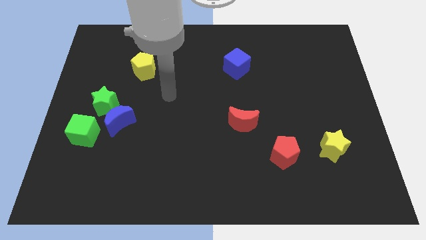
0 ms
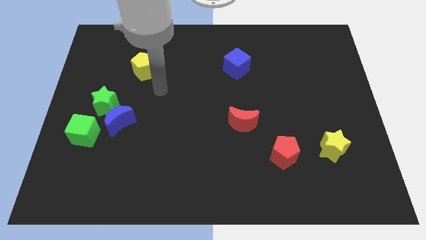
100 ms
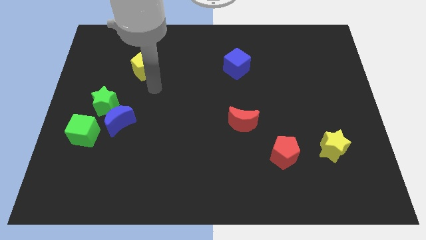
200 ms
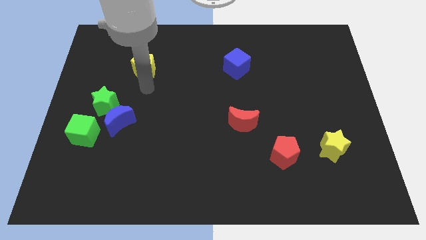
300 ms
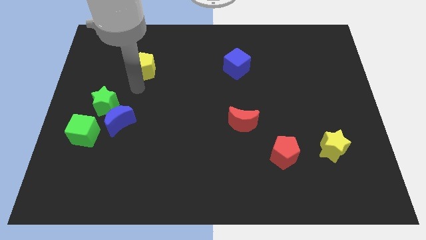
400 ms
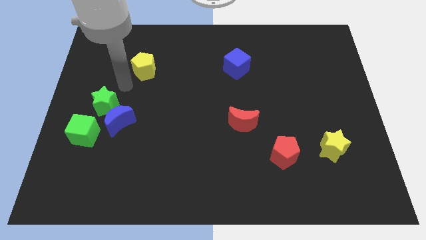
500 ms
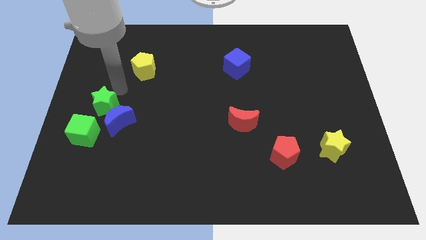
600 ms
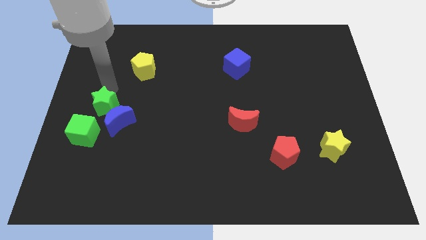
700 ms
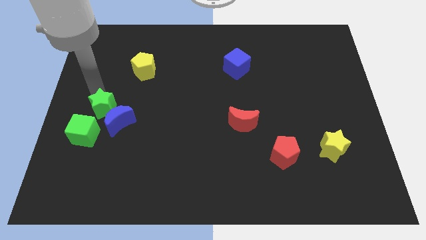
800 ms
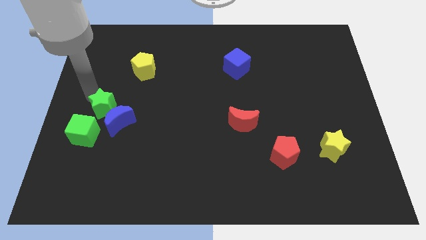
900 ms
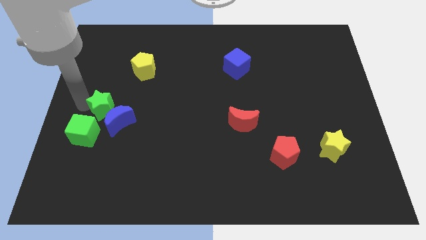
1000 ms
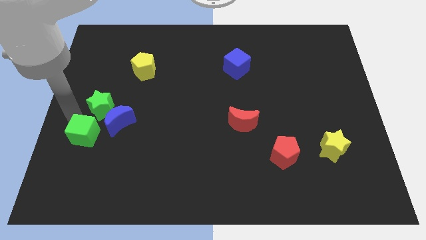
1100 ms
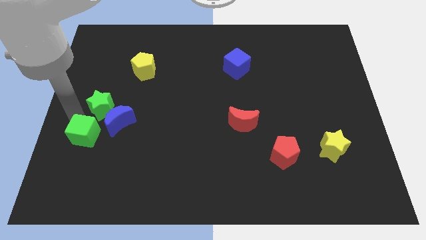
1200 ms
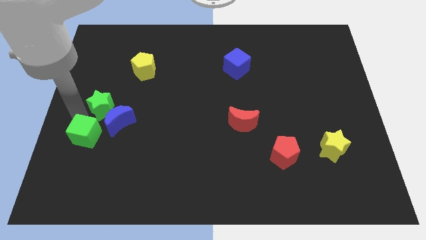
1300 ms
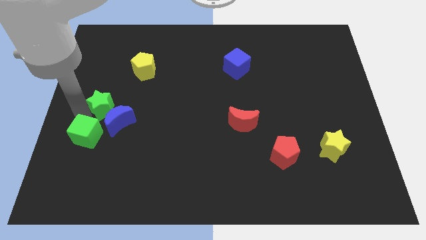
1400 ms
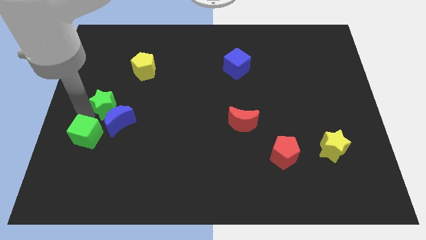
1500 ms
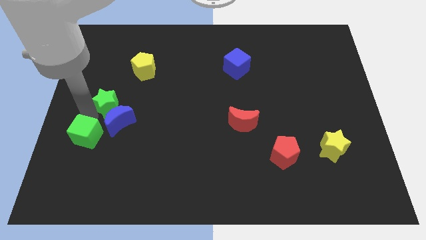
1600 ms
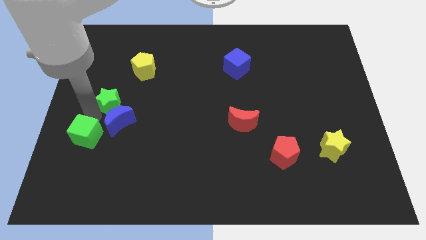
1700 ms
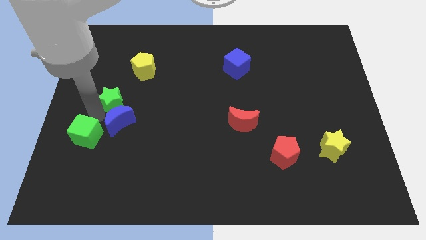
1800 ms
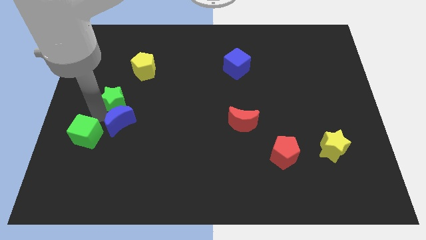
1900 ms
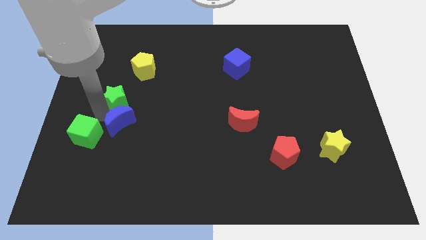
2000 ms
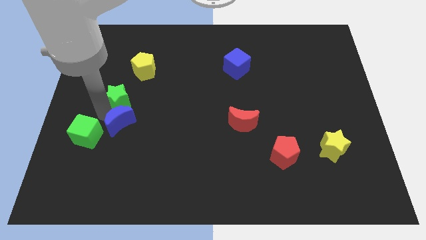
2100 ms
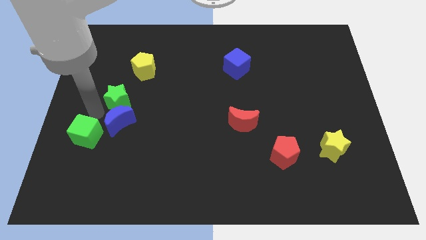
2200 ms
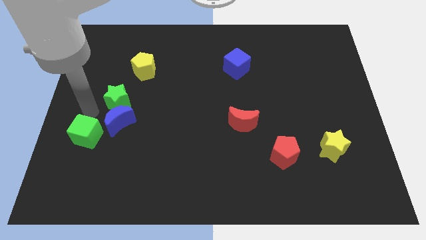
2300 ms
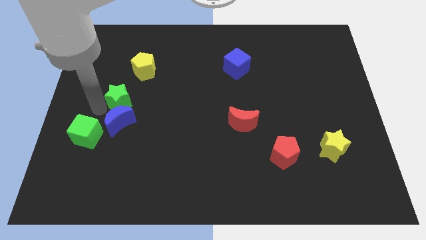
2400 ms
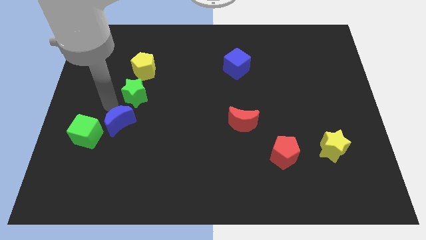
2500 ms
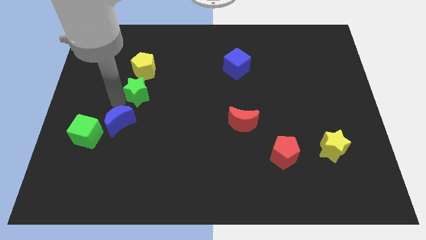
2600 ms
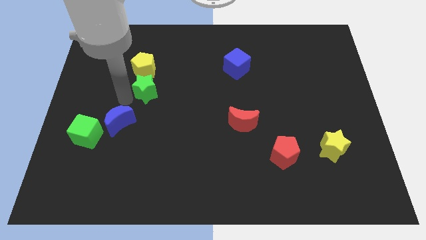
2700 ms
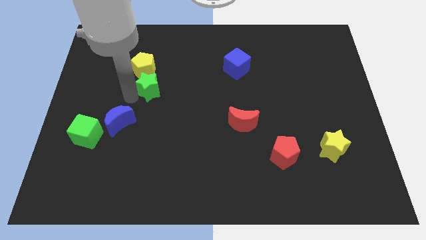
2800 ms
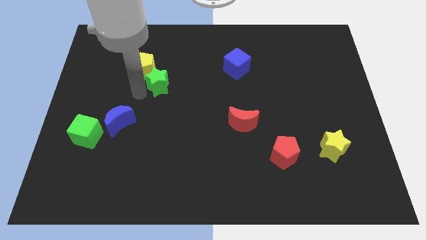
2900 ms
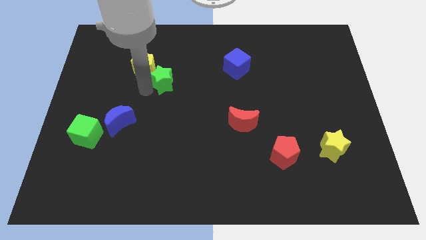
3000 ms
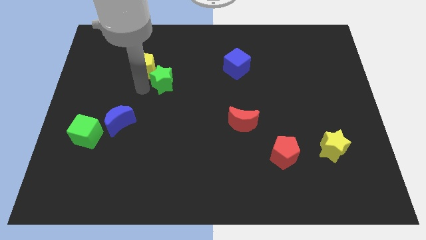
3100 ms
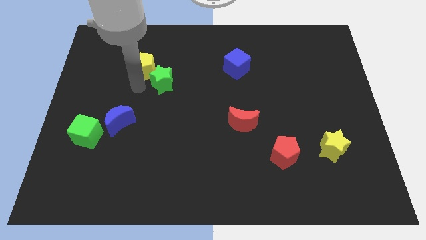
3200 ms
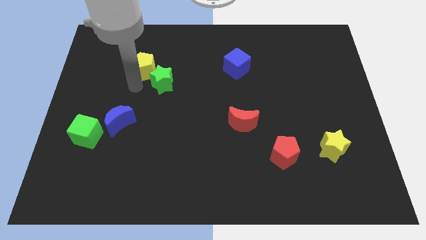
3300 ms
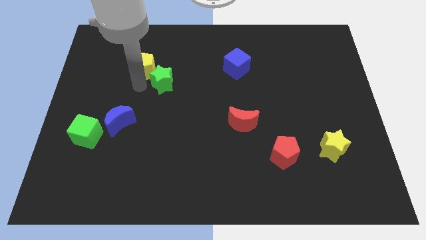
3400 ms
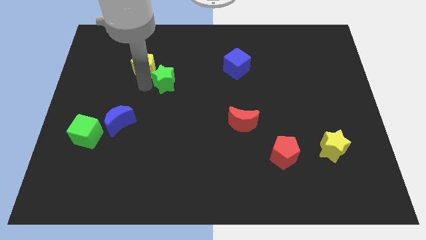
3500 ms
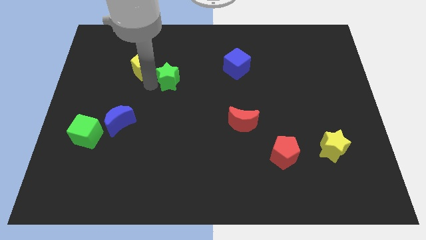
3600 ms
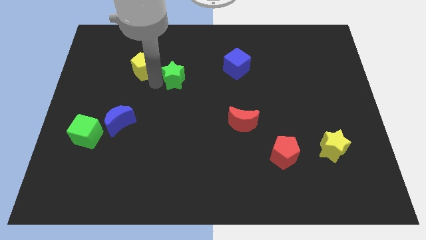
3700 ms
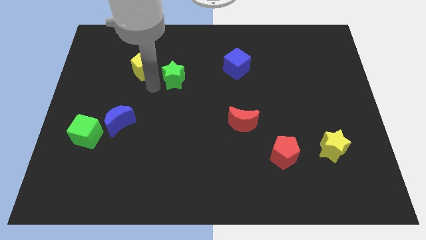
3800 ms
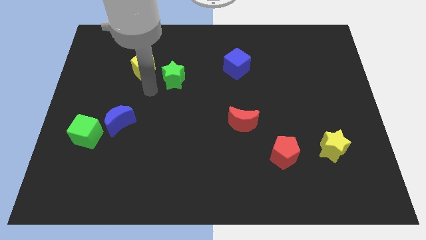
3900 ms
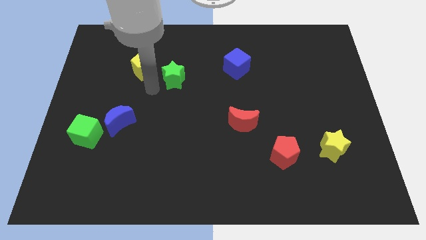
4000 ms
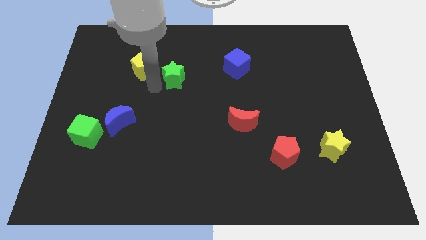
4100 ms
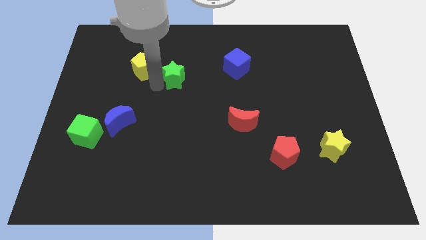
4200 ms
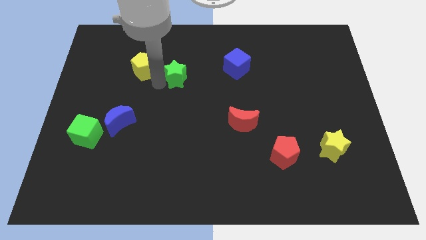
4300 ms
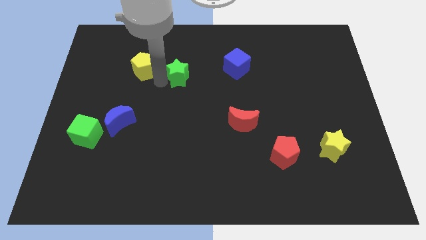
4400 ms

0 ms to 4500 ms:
slide the green star left of the blue cube

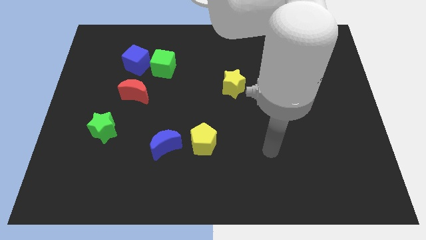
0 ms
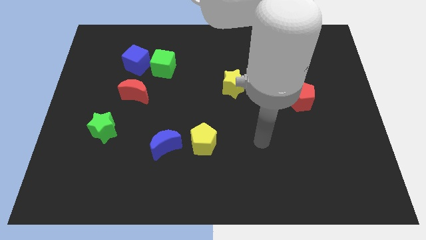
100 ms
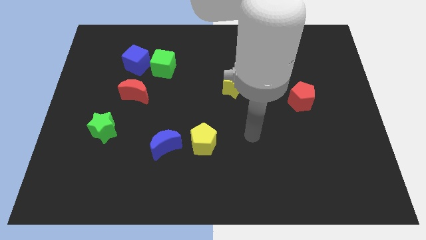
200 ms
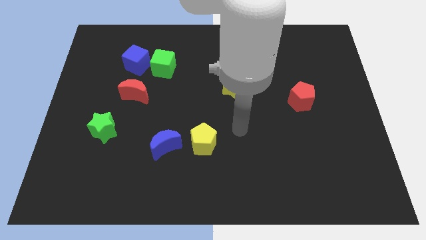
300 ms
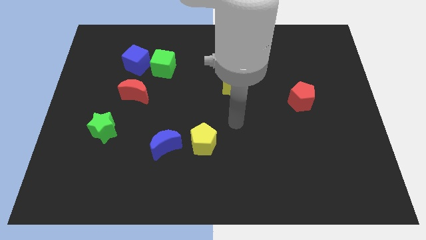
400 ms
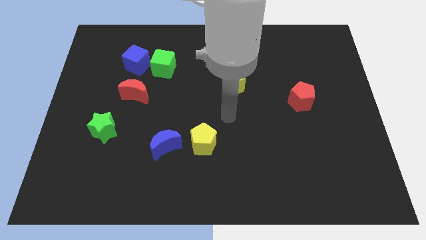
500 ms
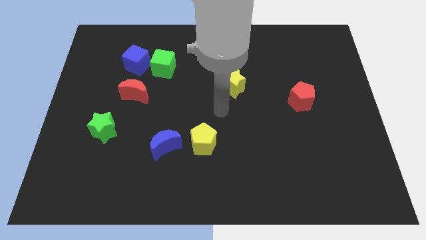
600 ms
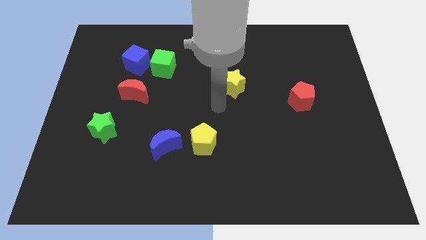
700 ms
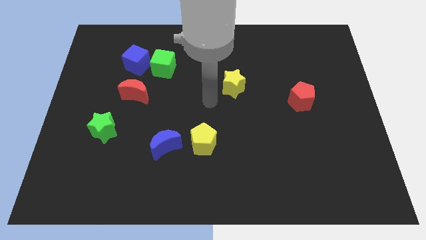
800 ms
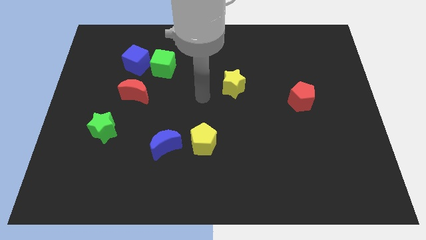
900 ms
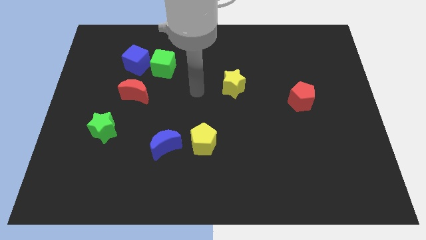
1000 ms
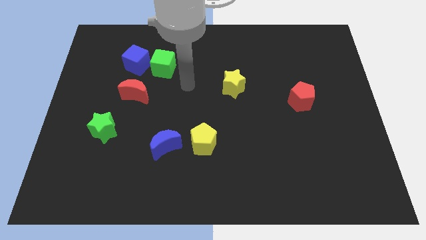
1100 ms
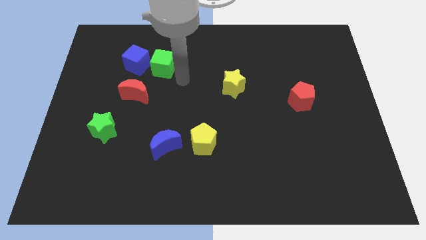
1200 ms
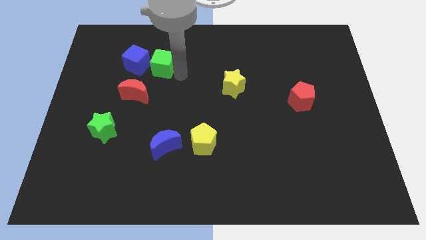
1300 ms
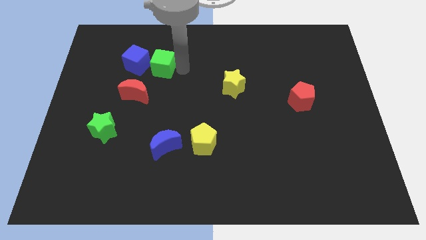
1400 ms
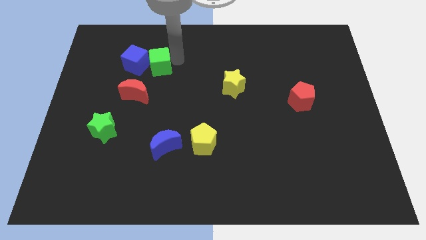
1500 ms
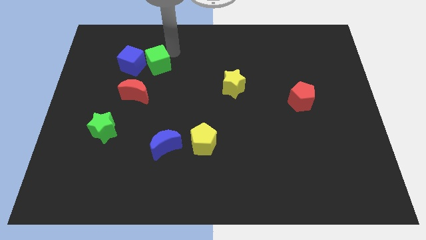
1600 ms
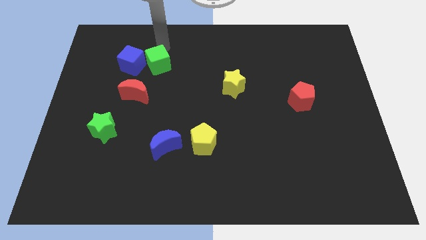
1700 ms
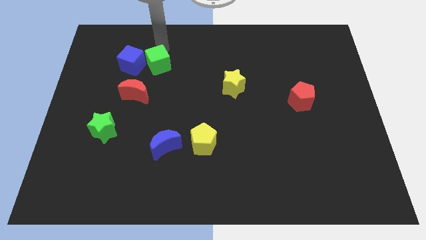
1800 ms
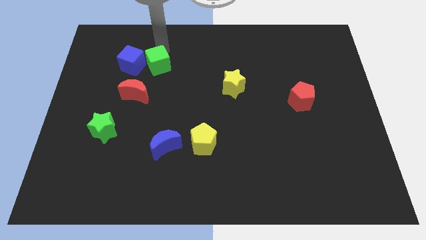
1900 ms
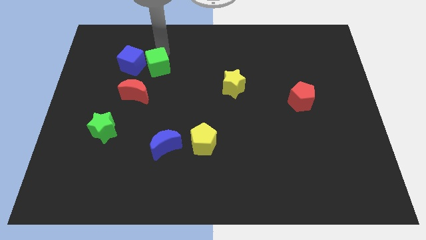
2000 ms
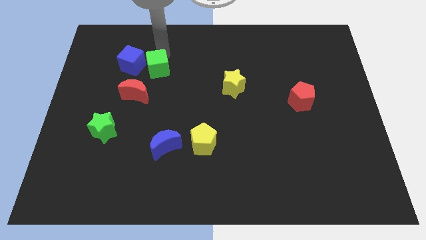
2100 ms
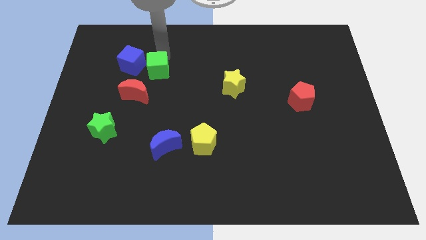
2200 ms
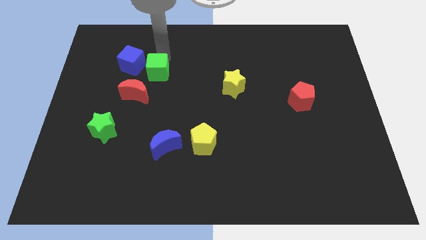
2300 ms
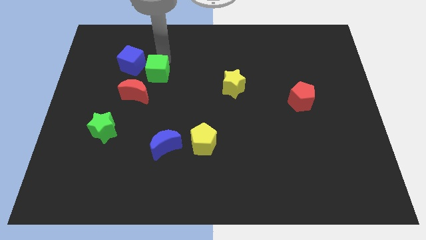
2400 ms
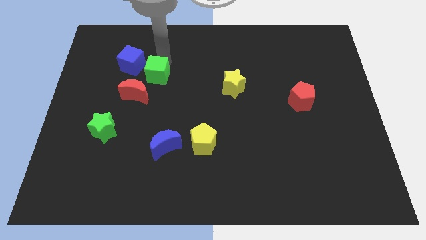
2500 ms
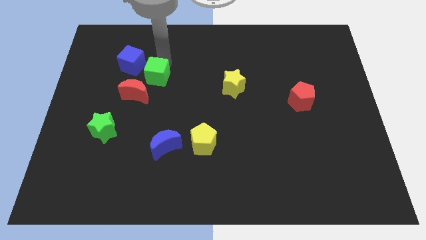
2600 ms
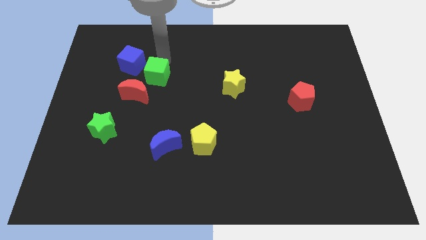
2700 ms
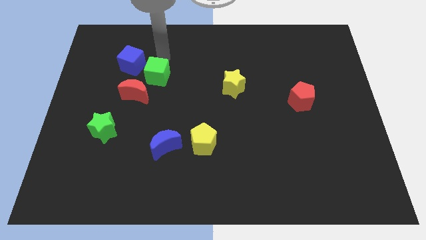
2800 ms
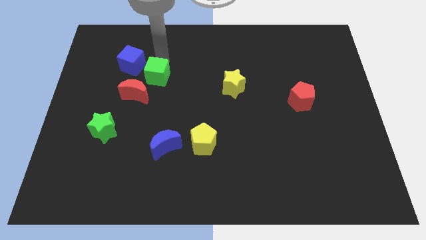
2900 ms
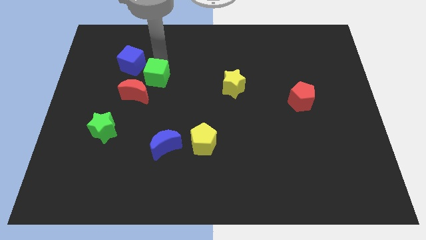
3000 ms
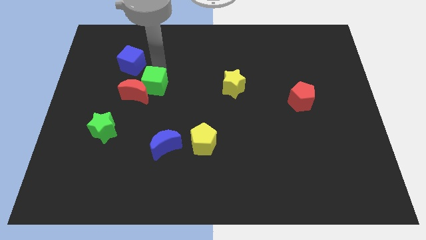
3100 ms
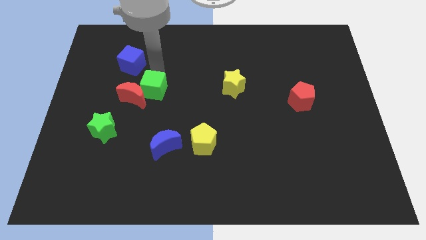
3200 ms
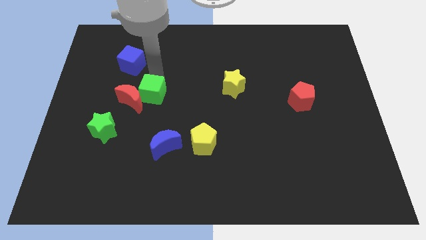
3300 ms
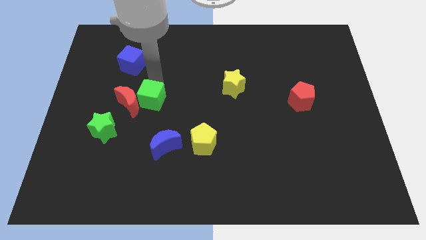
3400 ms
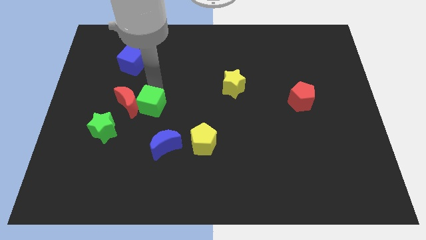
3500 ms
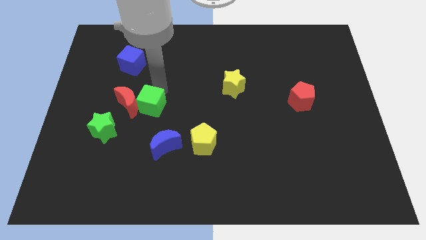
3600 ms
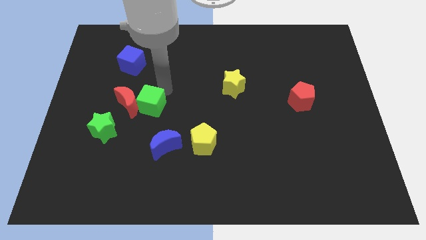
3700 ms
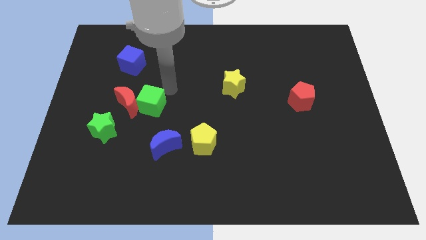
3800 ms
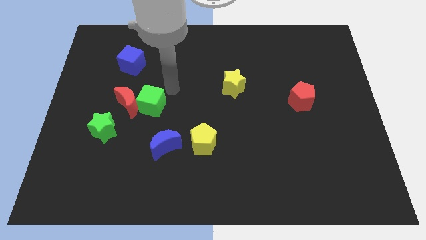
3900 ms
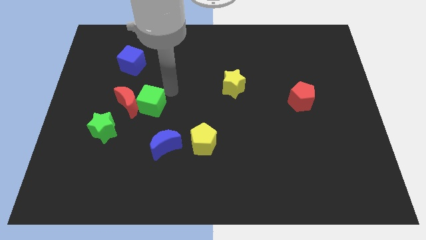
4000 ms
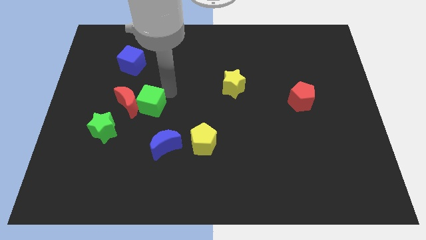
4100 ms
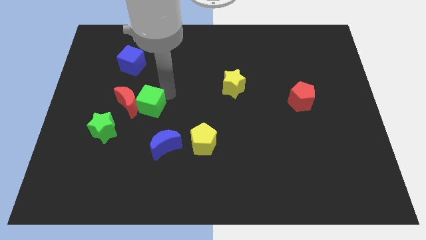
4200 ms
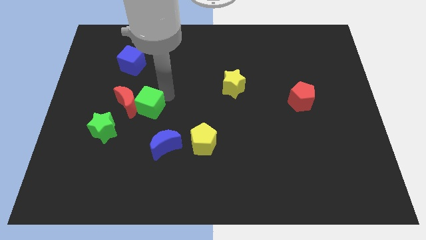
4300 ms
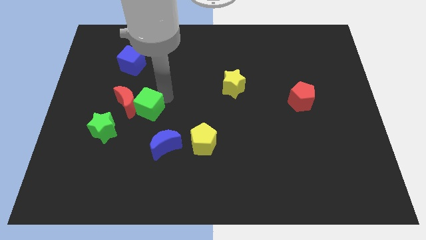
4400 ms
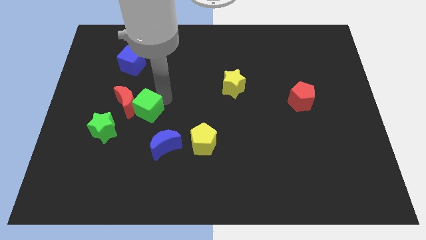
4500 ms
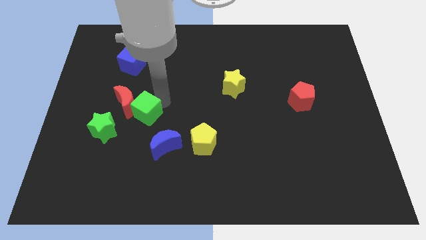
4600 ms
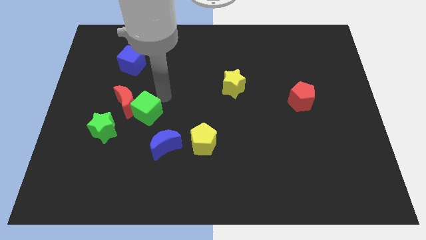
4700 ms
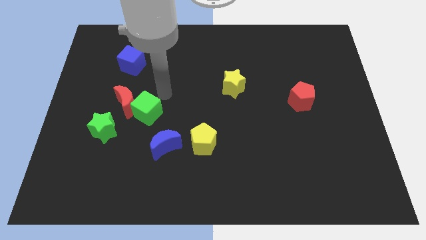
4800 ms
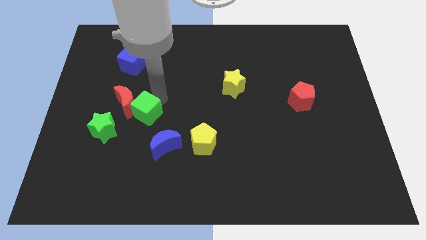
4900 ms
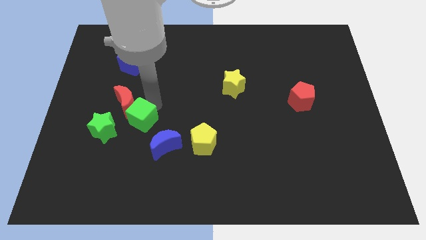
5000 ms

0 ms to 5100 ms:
put the green cube to the bottom side of the red moon
